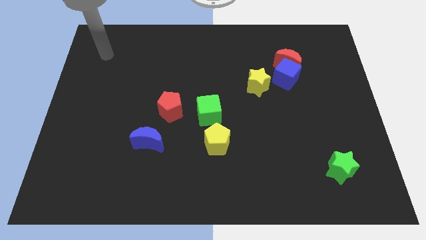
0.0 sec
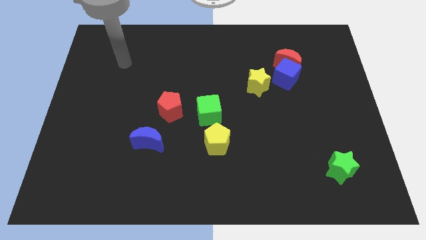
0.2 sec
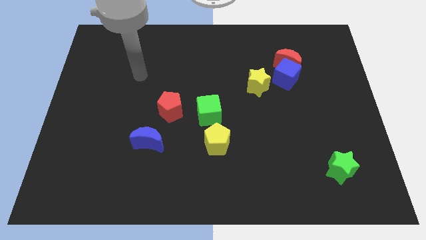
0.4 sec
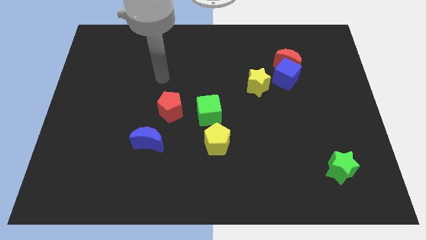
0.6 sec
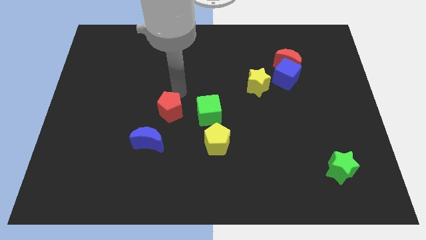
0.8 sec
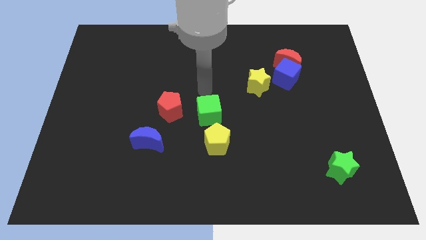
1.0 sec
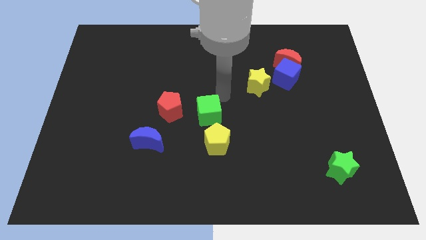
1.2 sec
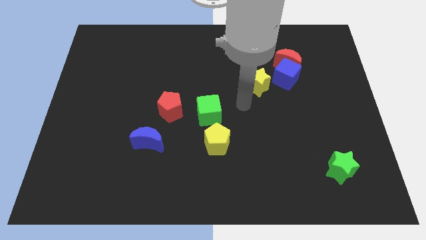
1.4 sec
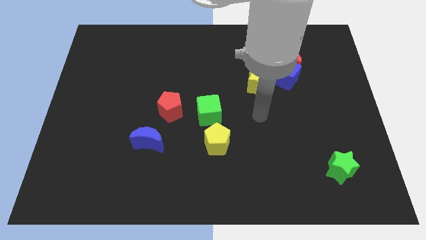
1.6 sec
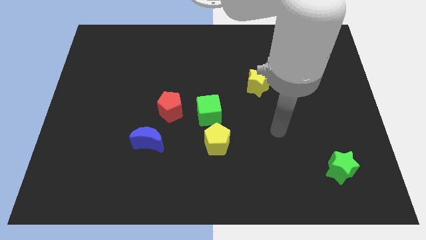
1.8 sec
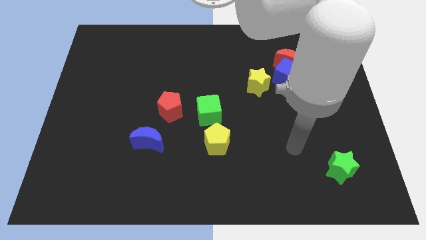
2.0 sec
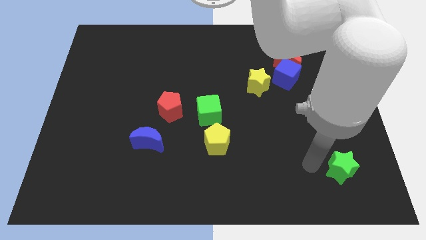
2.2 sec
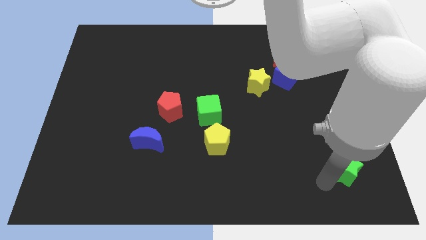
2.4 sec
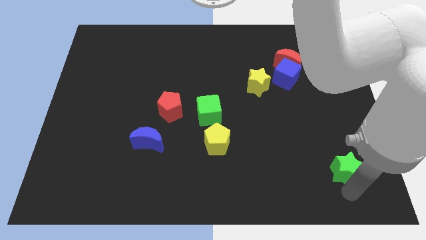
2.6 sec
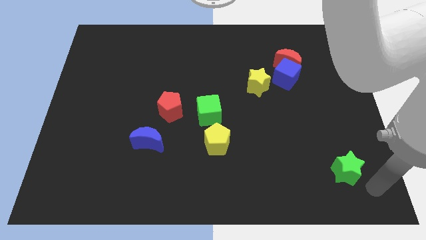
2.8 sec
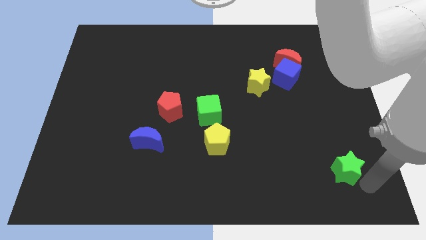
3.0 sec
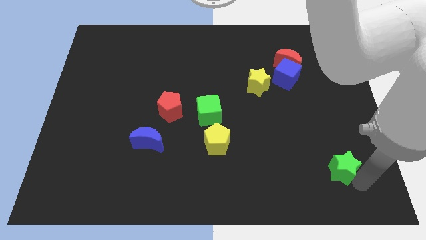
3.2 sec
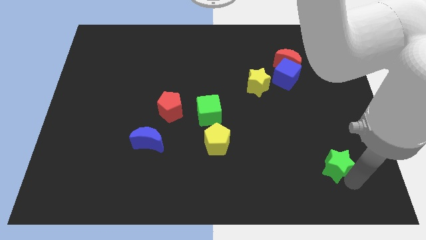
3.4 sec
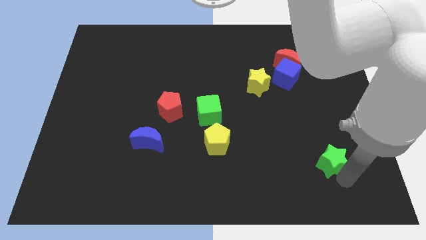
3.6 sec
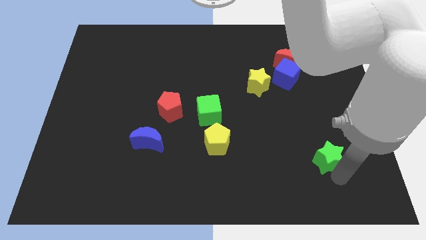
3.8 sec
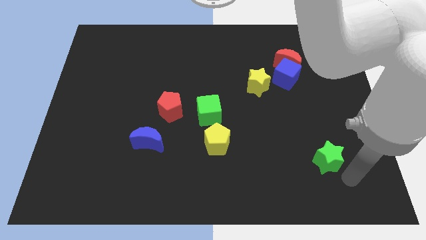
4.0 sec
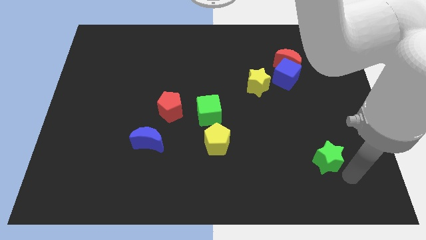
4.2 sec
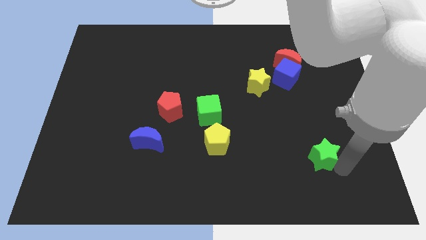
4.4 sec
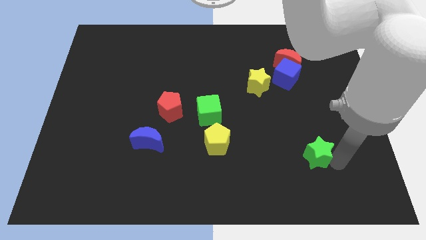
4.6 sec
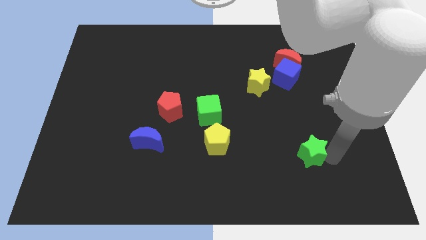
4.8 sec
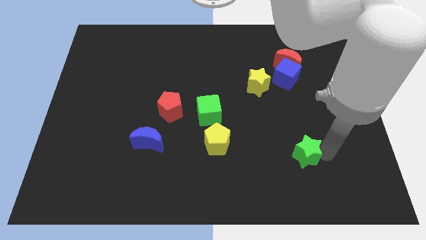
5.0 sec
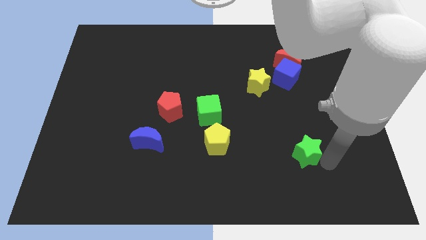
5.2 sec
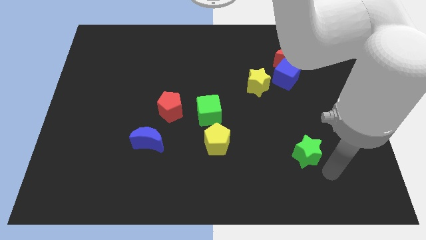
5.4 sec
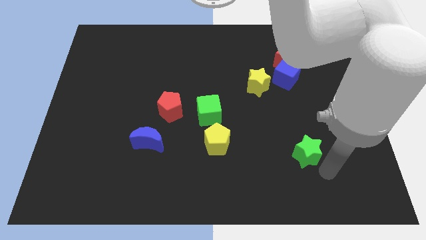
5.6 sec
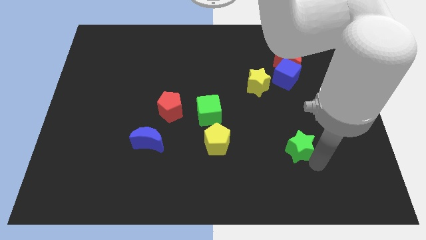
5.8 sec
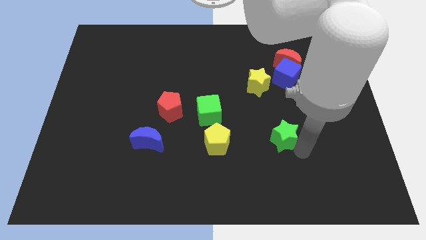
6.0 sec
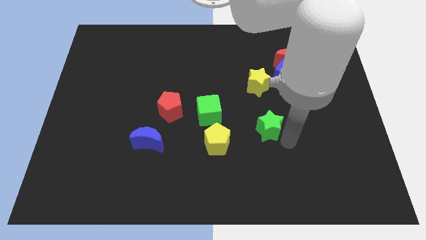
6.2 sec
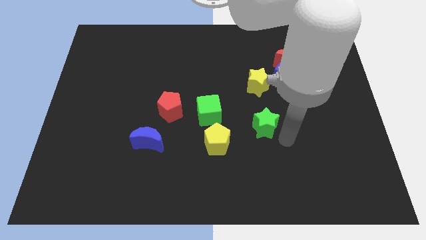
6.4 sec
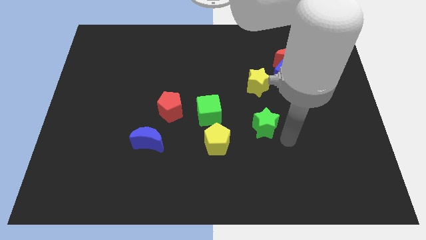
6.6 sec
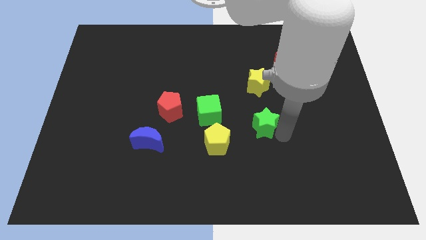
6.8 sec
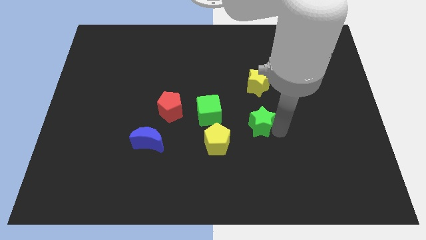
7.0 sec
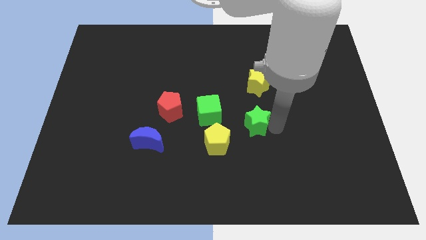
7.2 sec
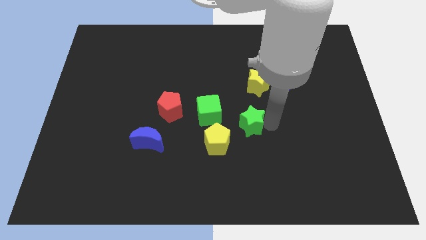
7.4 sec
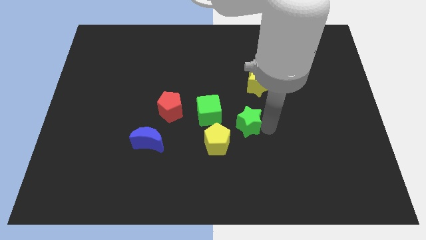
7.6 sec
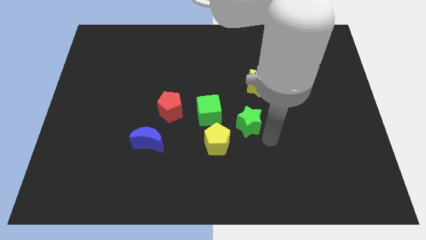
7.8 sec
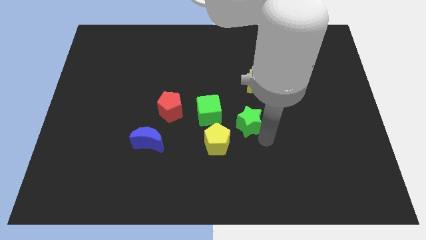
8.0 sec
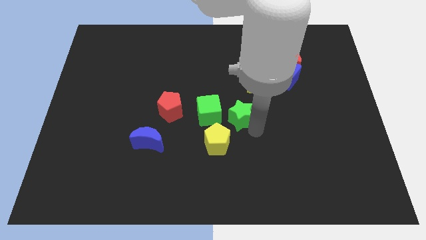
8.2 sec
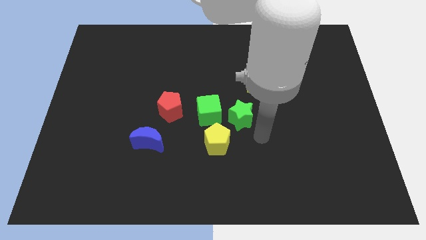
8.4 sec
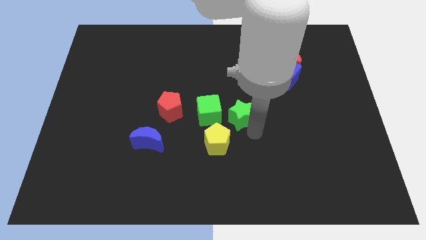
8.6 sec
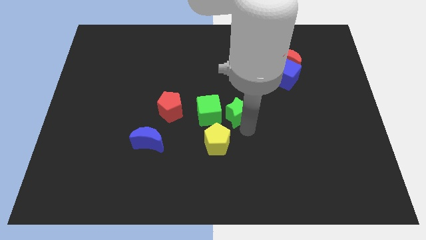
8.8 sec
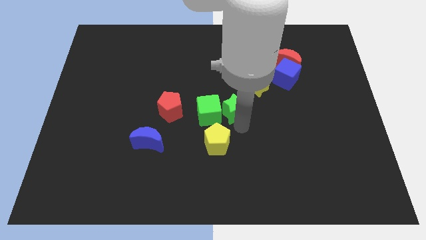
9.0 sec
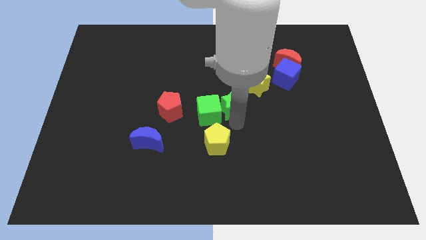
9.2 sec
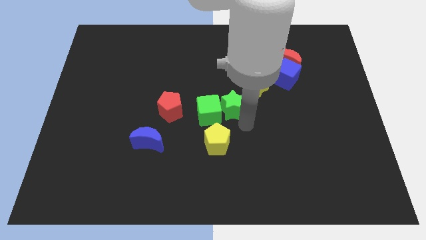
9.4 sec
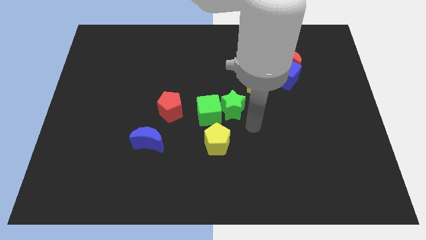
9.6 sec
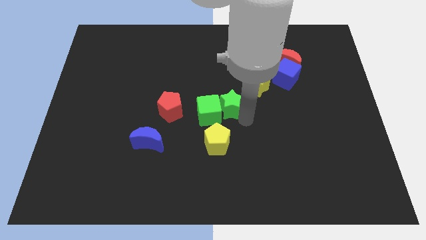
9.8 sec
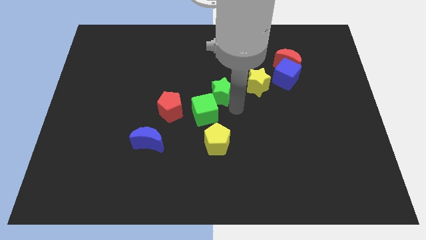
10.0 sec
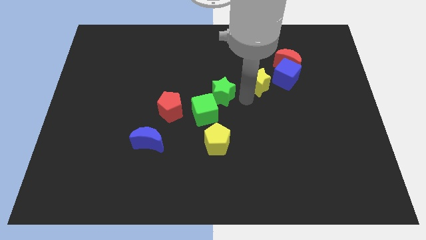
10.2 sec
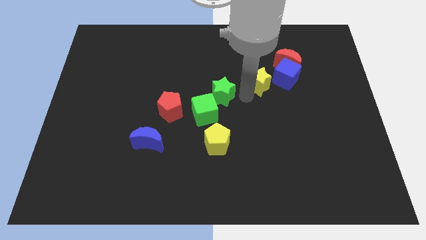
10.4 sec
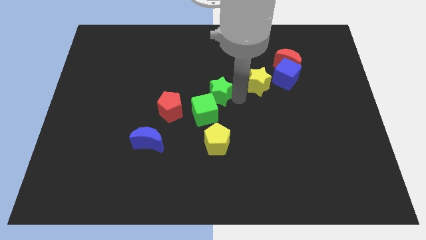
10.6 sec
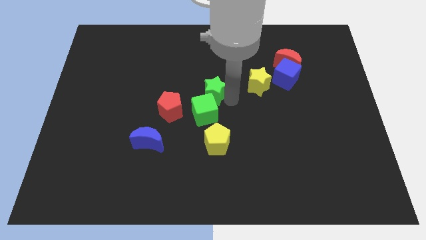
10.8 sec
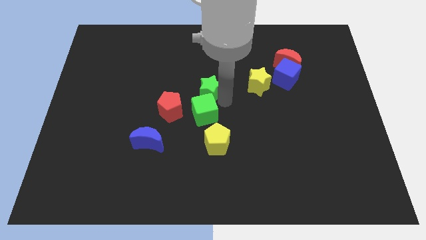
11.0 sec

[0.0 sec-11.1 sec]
put the green star to the top left of the green cube

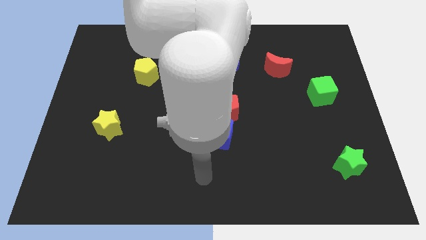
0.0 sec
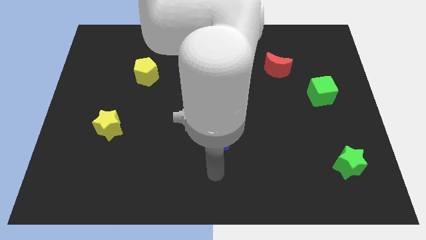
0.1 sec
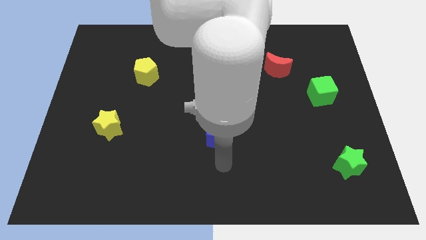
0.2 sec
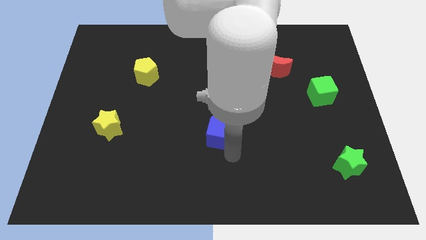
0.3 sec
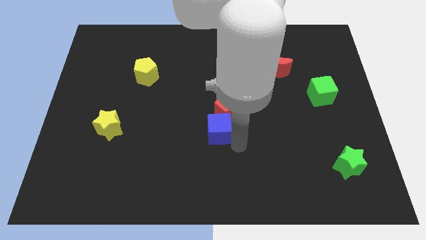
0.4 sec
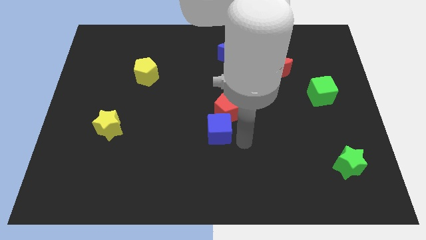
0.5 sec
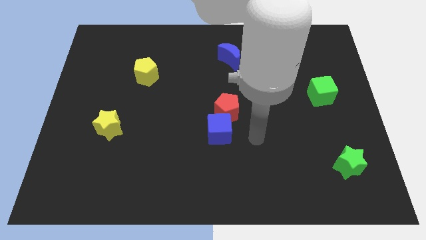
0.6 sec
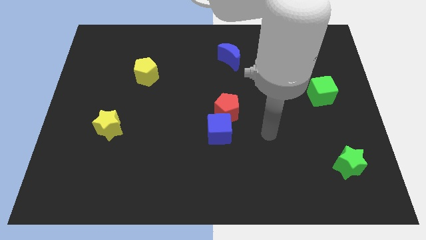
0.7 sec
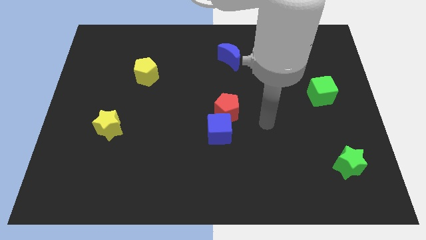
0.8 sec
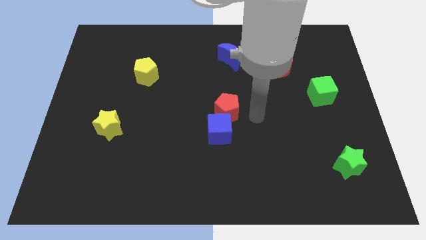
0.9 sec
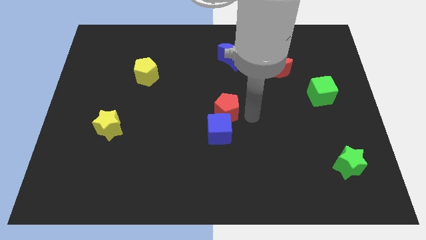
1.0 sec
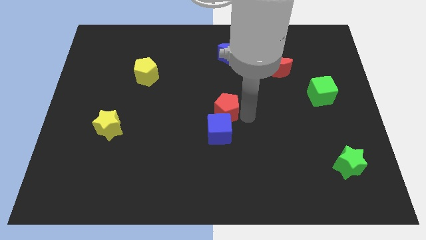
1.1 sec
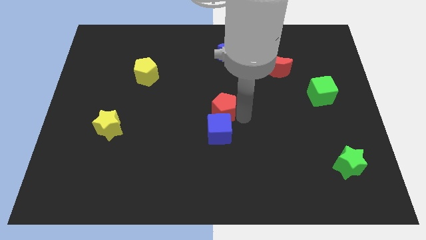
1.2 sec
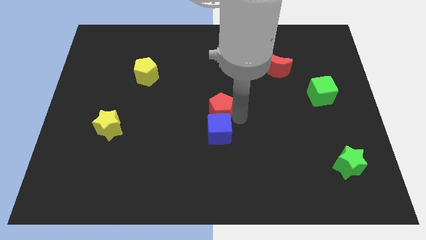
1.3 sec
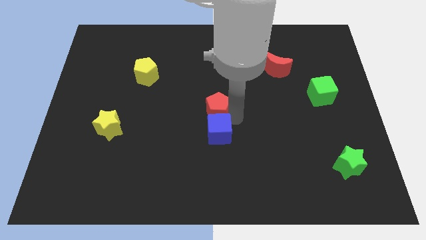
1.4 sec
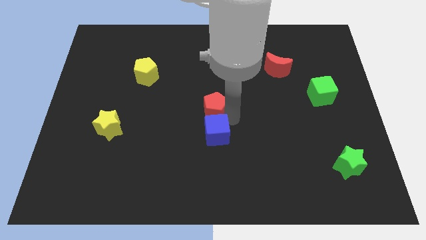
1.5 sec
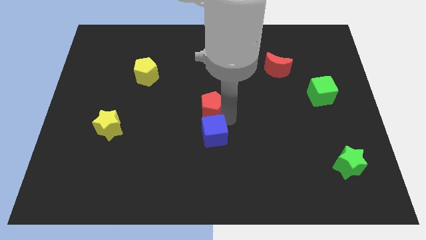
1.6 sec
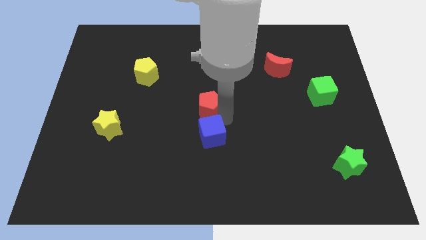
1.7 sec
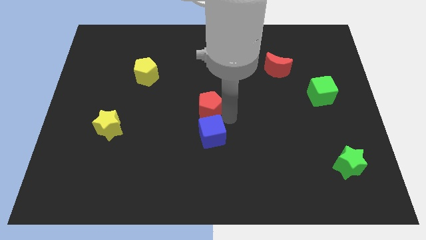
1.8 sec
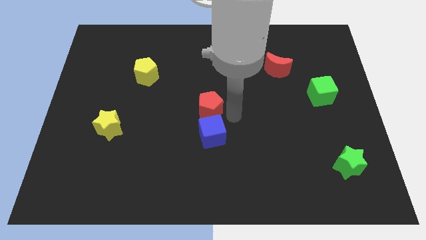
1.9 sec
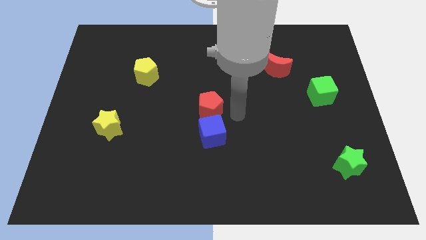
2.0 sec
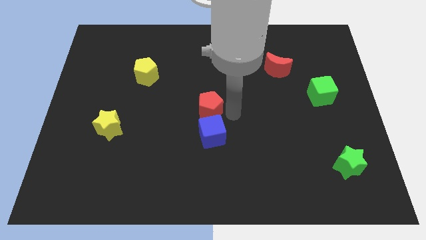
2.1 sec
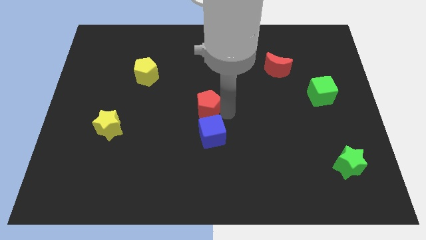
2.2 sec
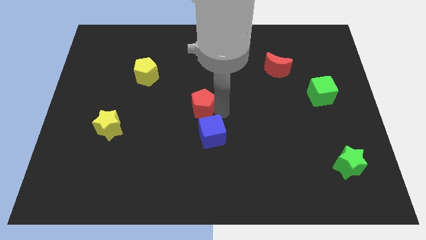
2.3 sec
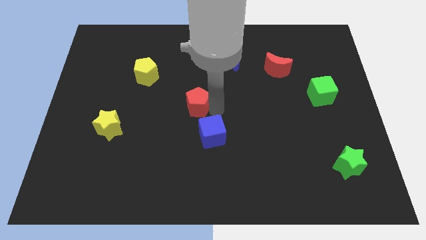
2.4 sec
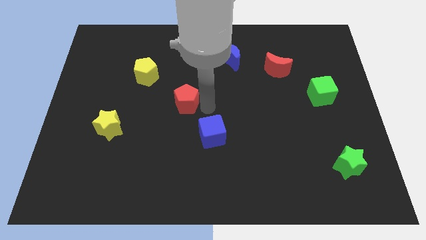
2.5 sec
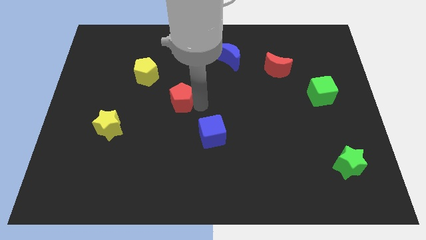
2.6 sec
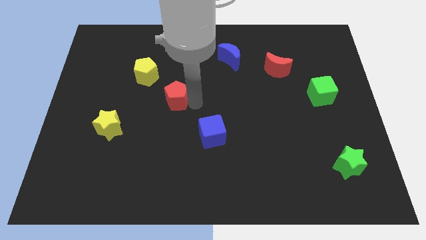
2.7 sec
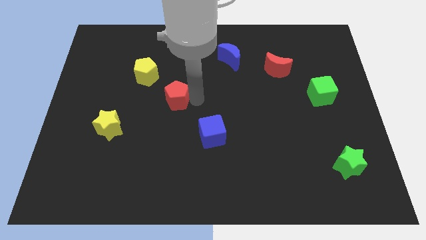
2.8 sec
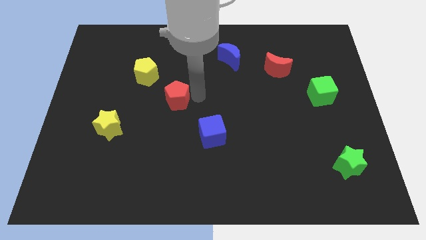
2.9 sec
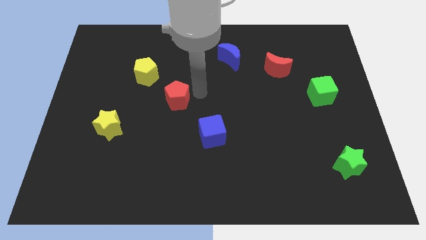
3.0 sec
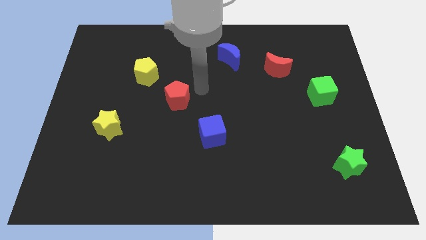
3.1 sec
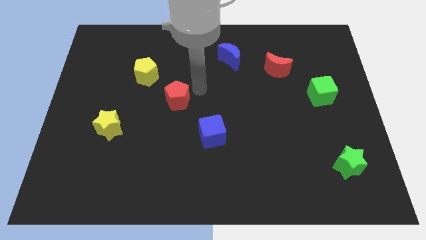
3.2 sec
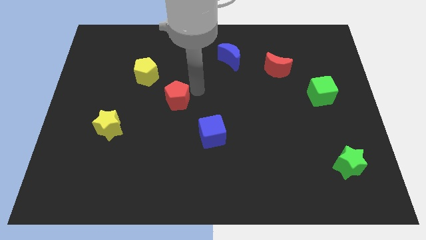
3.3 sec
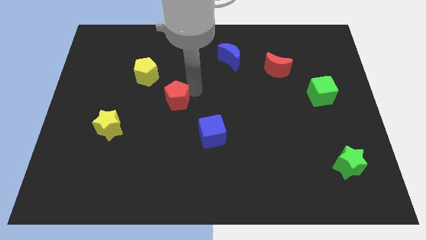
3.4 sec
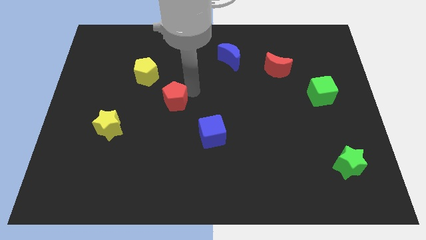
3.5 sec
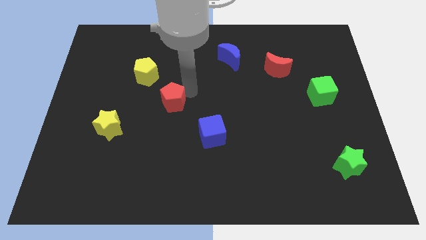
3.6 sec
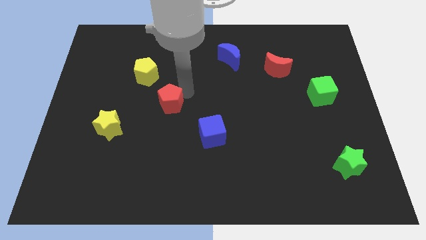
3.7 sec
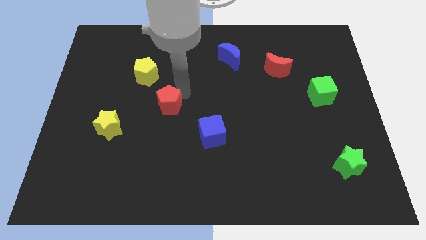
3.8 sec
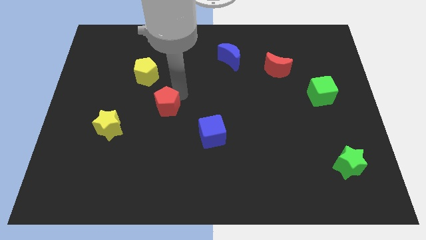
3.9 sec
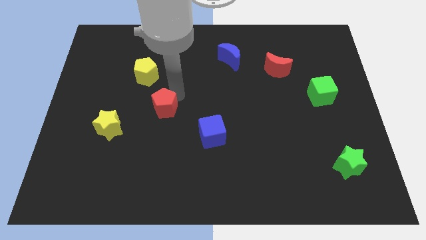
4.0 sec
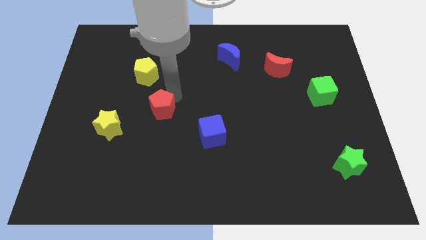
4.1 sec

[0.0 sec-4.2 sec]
push the red pentagon to the bottom of the yellow pentagon
